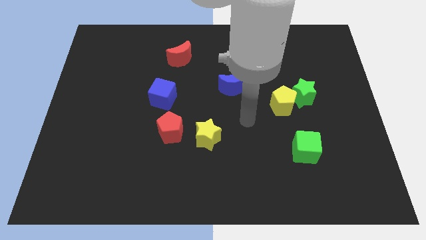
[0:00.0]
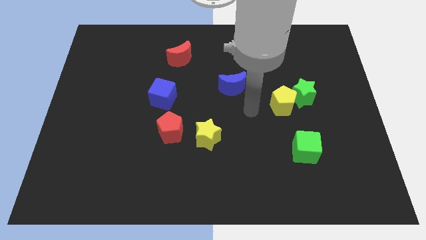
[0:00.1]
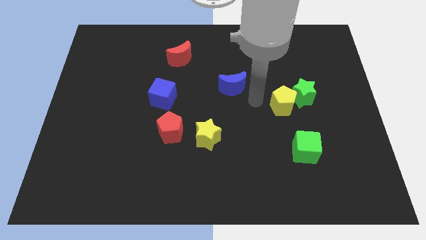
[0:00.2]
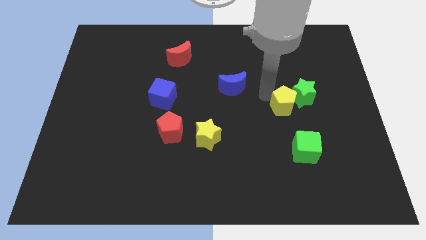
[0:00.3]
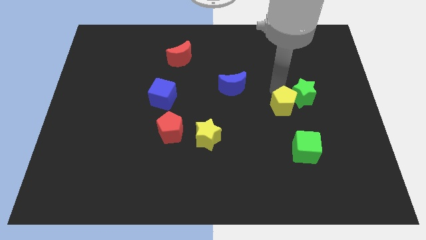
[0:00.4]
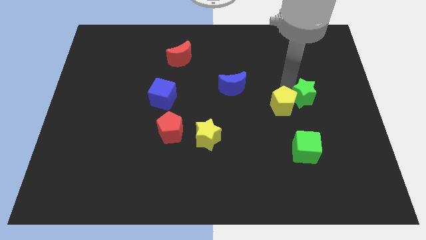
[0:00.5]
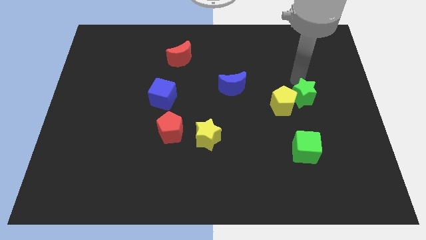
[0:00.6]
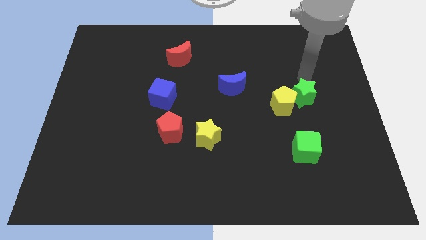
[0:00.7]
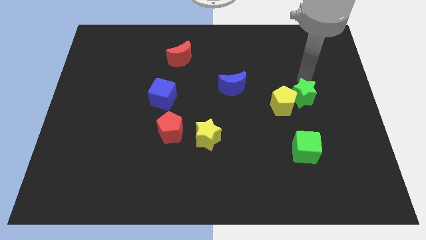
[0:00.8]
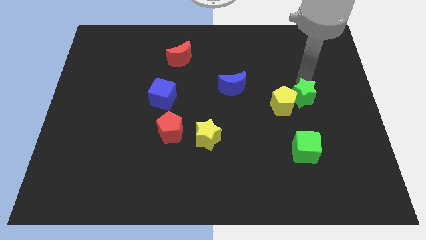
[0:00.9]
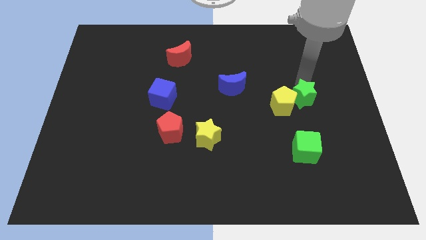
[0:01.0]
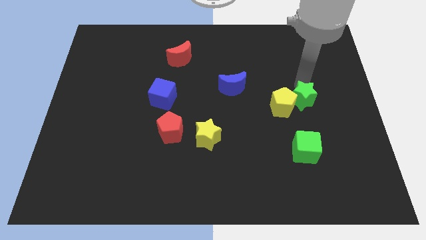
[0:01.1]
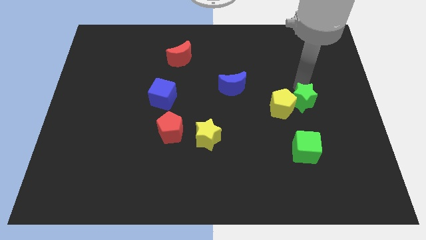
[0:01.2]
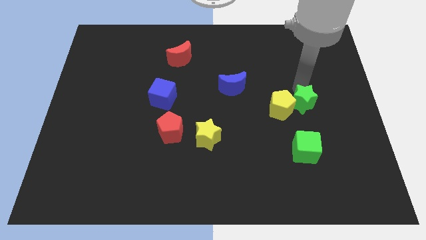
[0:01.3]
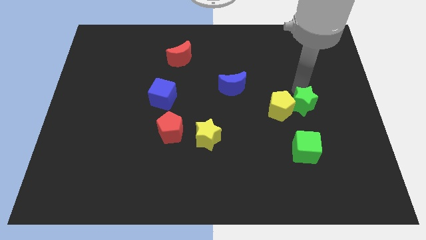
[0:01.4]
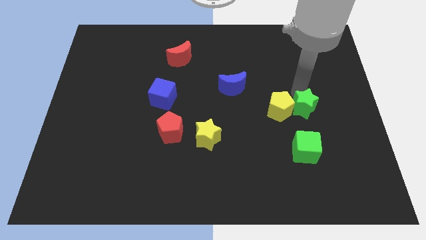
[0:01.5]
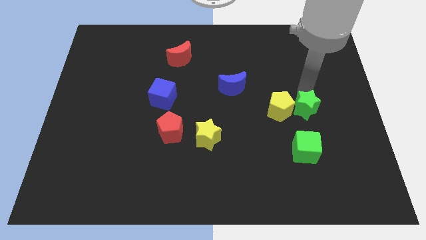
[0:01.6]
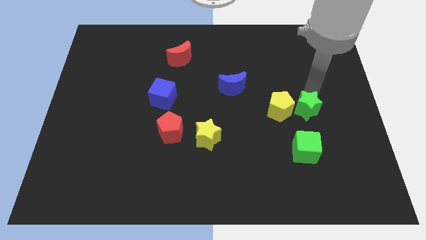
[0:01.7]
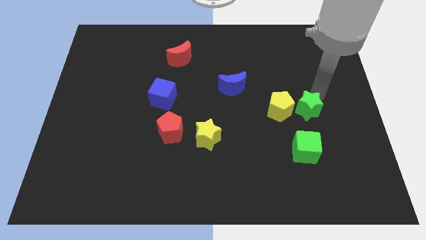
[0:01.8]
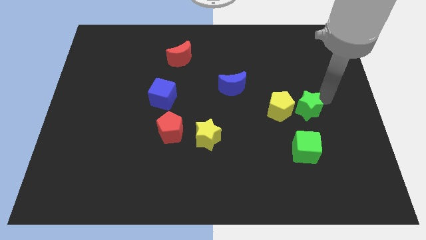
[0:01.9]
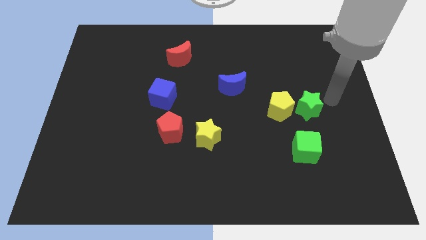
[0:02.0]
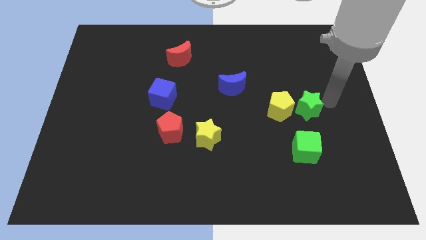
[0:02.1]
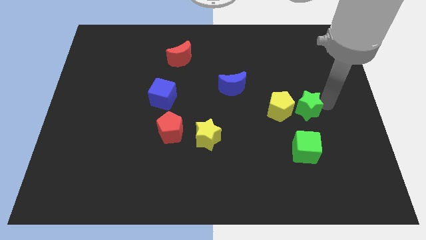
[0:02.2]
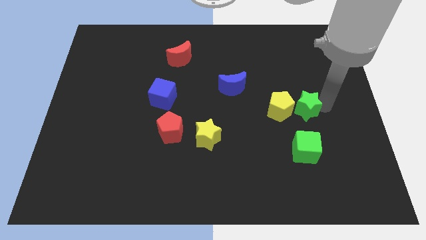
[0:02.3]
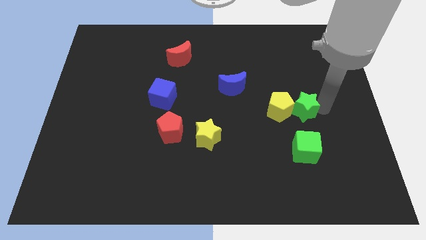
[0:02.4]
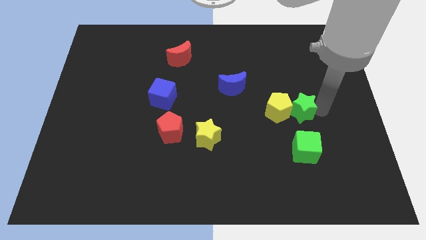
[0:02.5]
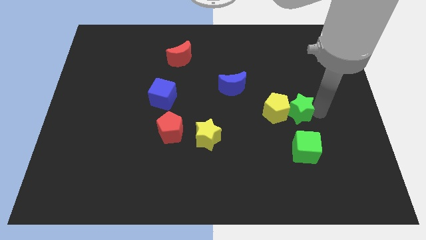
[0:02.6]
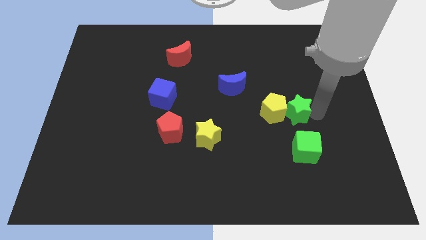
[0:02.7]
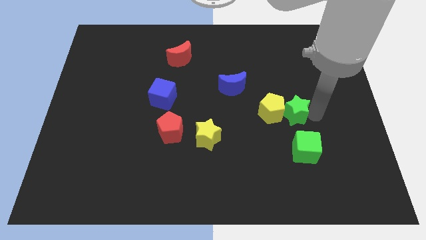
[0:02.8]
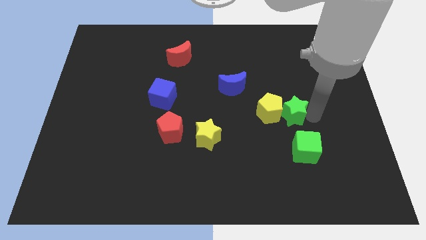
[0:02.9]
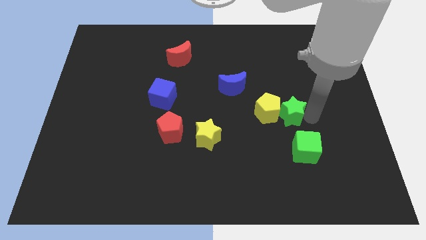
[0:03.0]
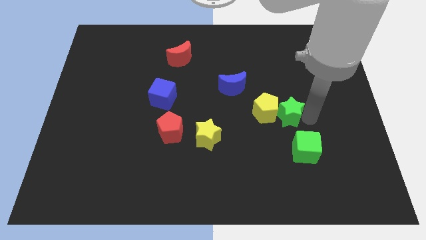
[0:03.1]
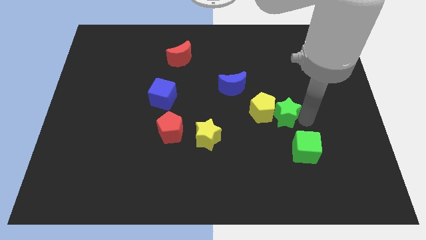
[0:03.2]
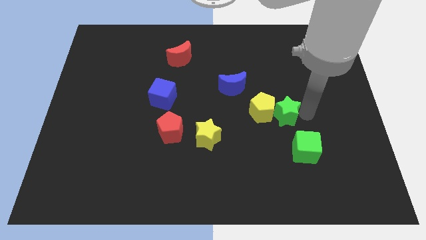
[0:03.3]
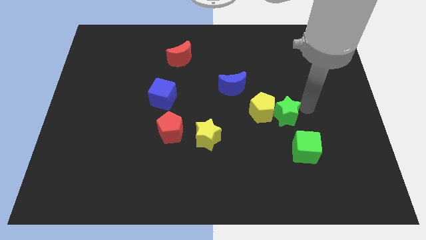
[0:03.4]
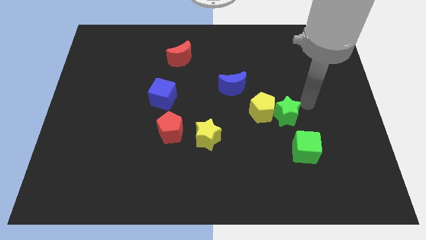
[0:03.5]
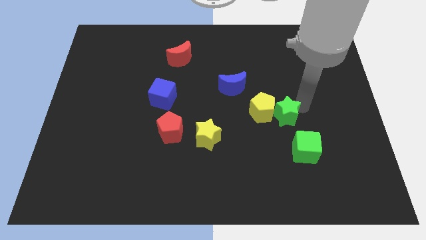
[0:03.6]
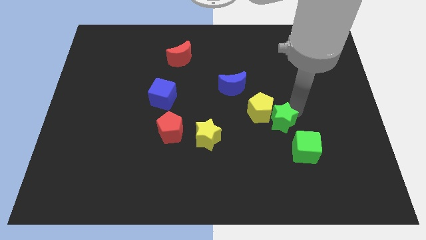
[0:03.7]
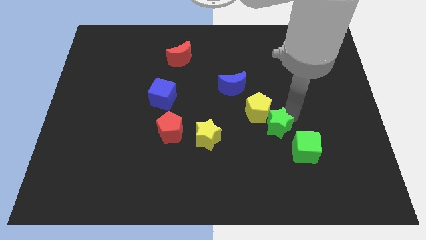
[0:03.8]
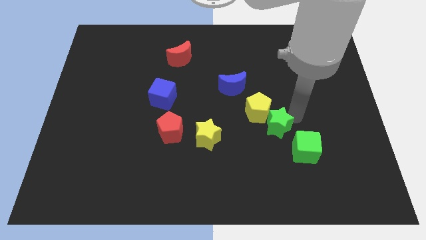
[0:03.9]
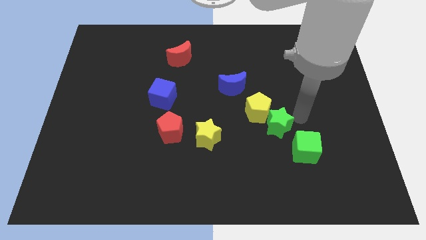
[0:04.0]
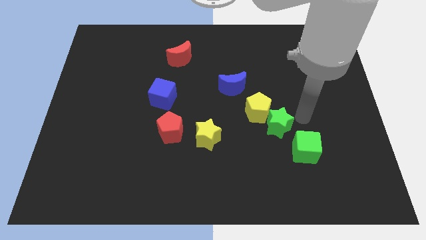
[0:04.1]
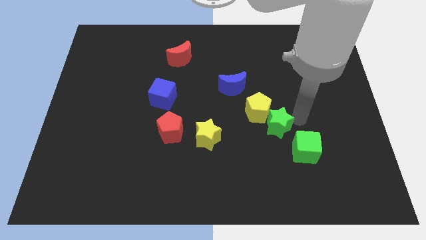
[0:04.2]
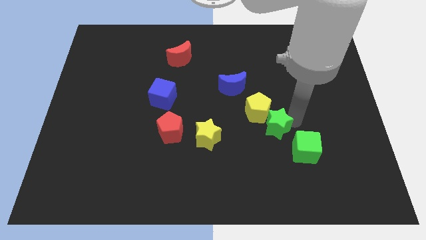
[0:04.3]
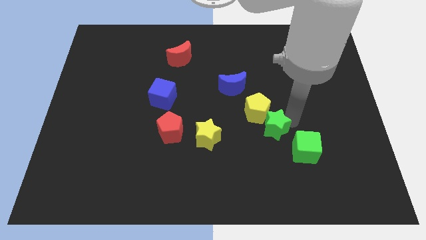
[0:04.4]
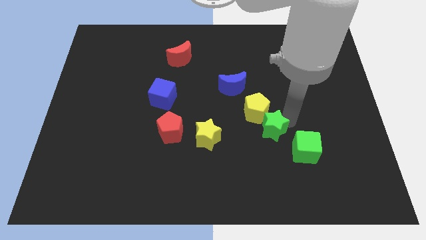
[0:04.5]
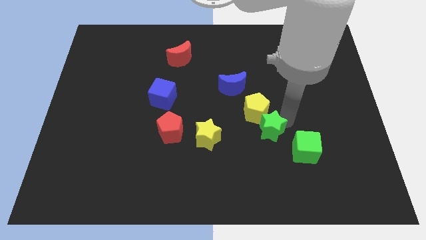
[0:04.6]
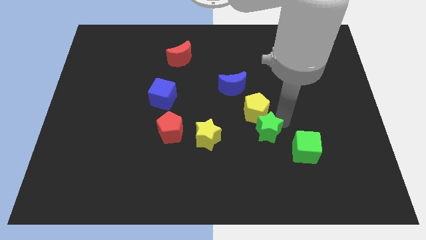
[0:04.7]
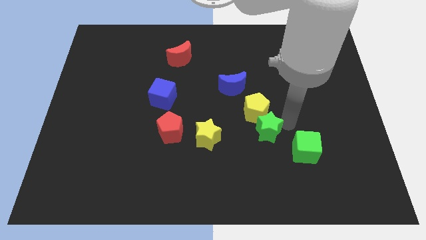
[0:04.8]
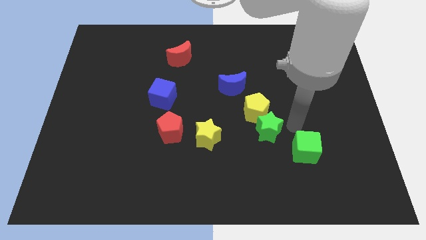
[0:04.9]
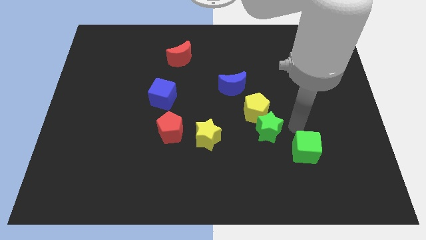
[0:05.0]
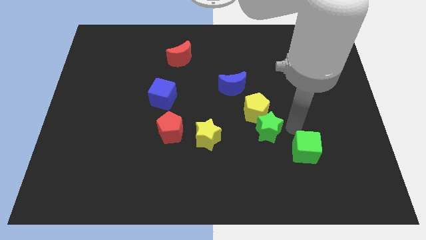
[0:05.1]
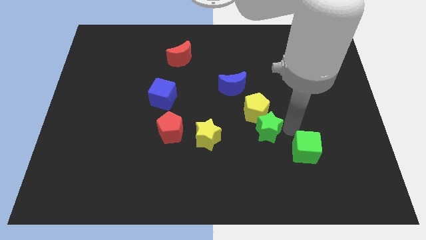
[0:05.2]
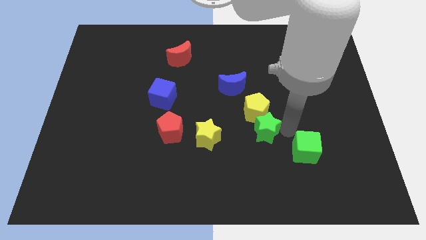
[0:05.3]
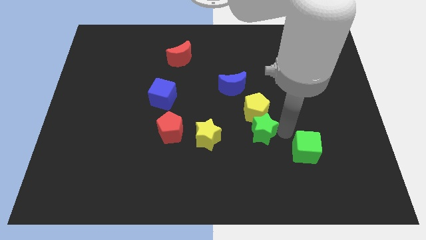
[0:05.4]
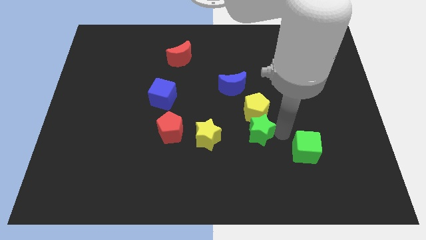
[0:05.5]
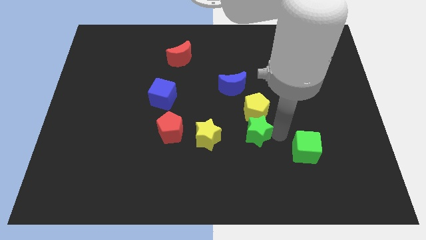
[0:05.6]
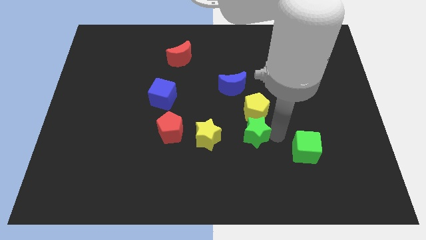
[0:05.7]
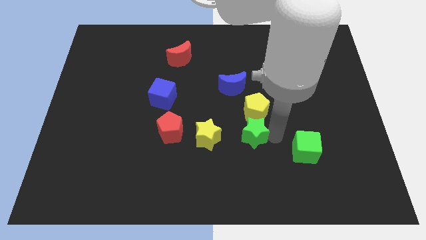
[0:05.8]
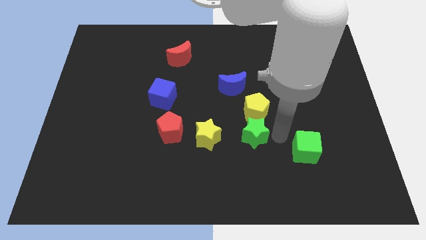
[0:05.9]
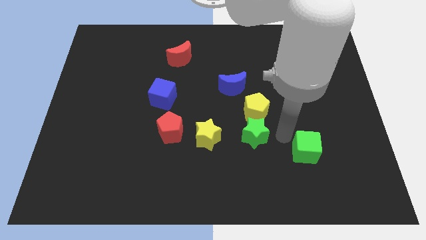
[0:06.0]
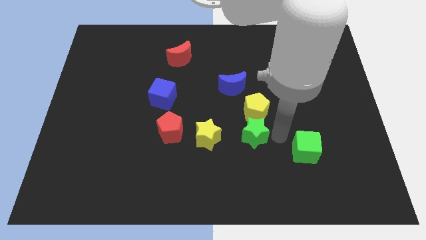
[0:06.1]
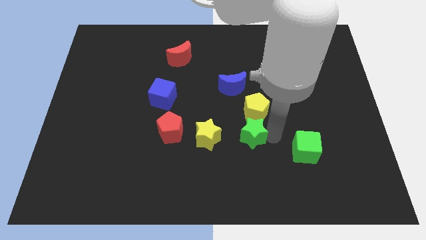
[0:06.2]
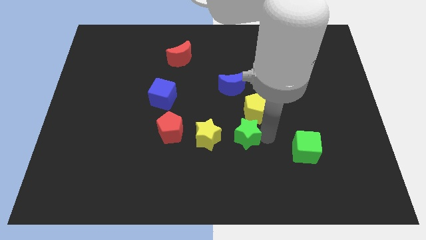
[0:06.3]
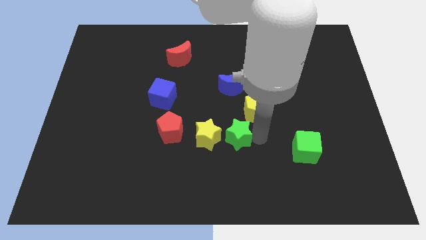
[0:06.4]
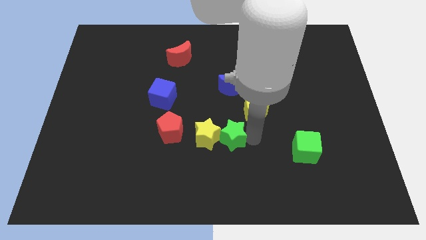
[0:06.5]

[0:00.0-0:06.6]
move the green star towards the yellow star

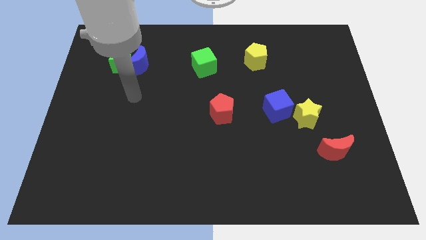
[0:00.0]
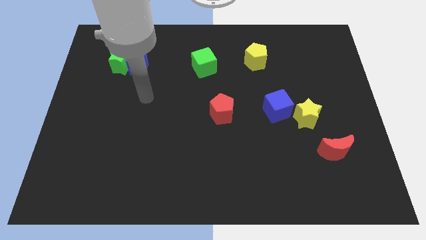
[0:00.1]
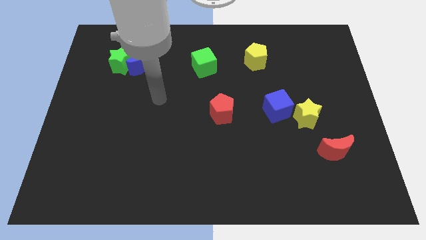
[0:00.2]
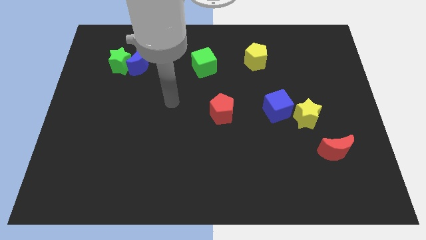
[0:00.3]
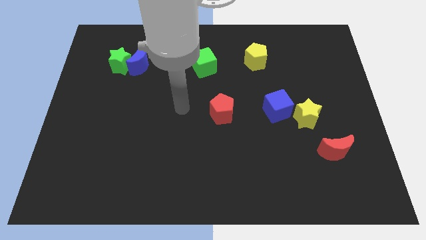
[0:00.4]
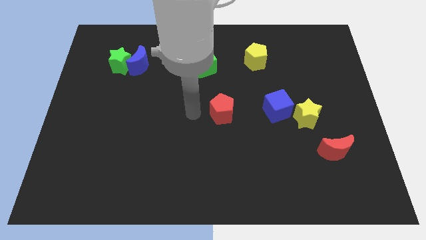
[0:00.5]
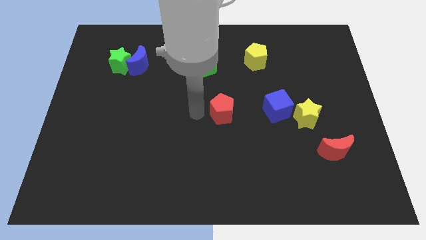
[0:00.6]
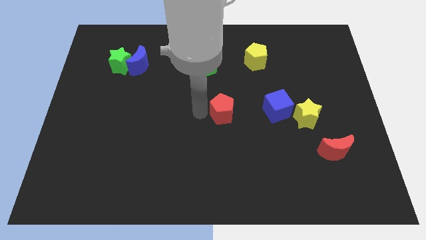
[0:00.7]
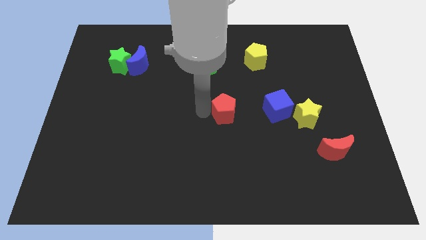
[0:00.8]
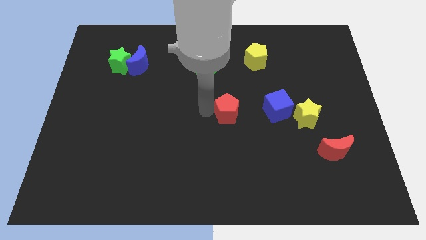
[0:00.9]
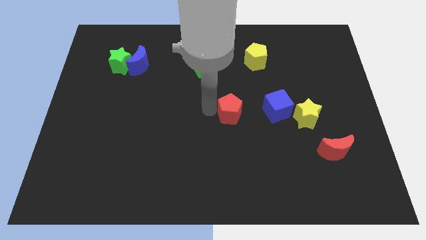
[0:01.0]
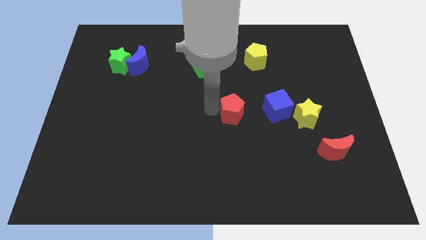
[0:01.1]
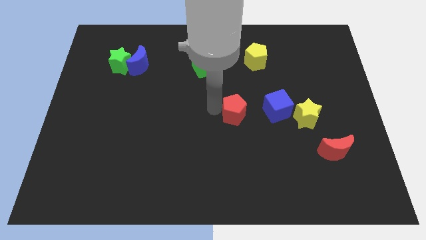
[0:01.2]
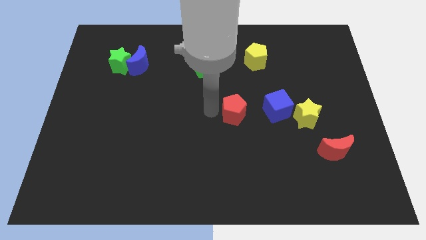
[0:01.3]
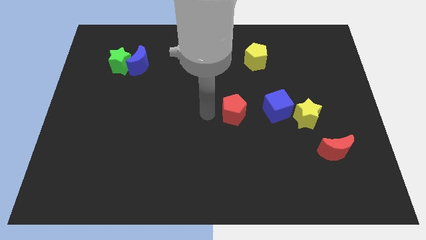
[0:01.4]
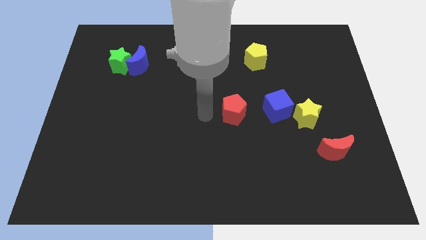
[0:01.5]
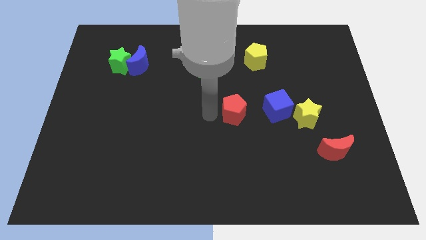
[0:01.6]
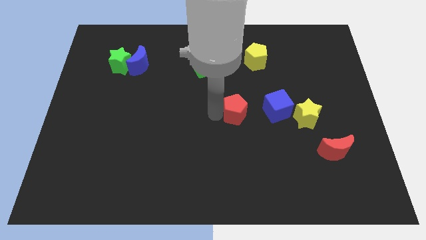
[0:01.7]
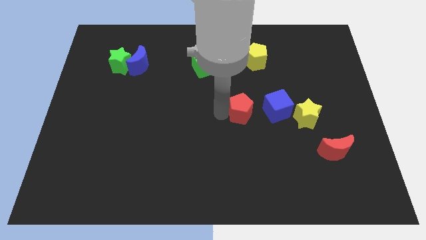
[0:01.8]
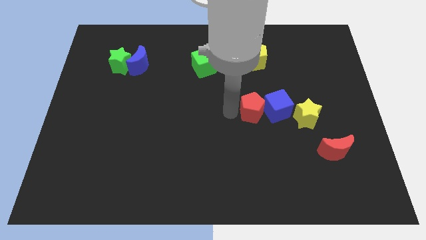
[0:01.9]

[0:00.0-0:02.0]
slide the red pentagon to the blue cube
